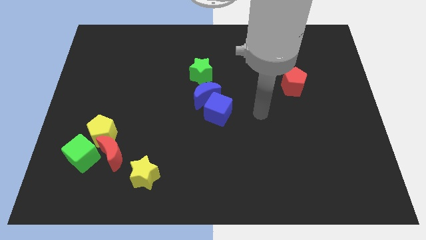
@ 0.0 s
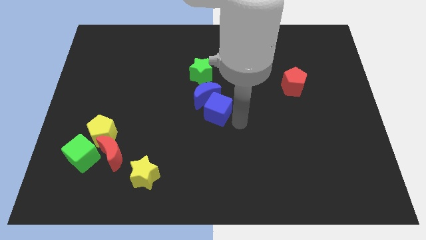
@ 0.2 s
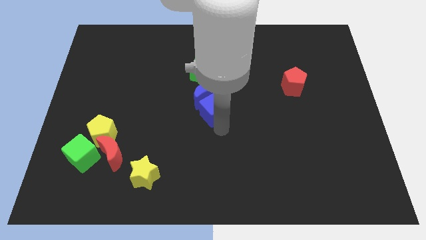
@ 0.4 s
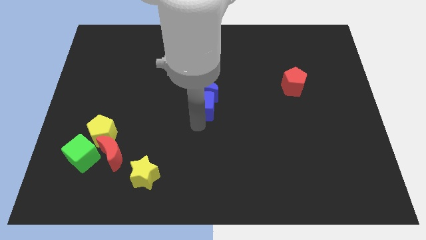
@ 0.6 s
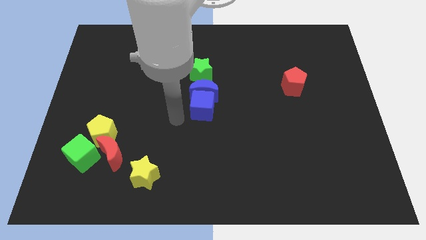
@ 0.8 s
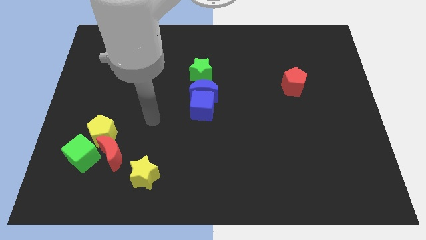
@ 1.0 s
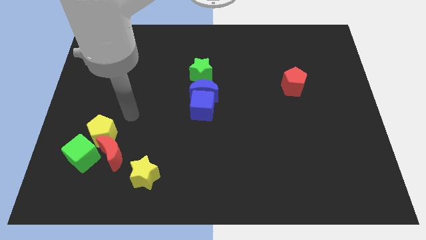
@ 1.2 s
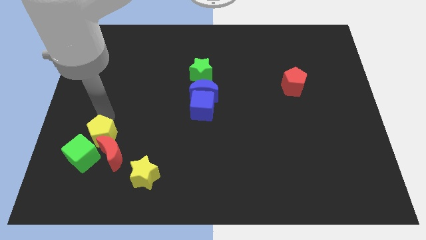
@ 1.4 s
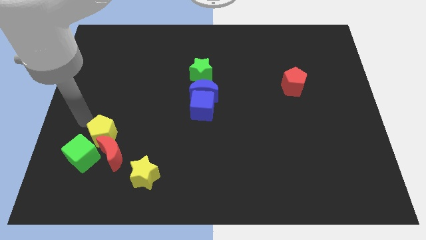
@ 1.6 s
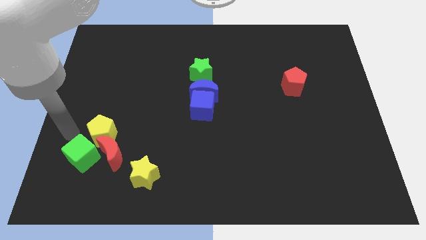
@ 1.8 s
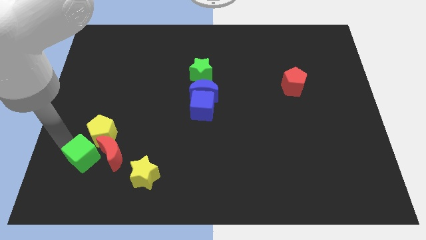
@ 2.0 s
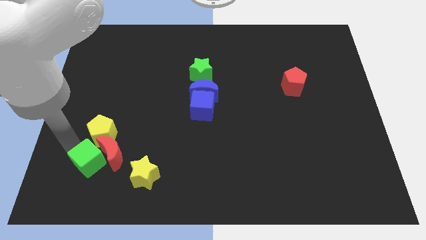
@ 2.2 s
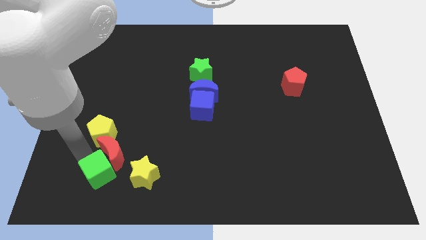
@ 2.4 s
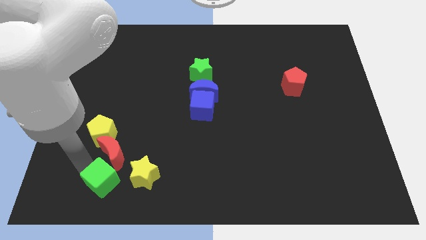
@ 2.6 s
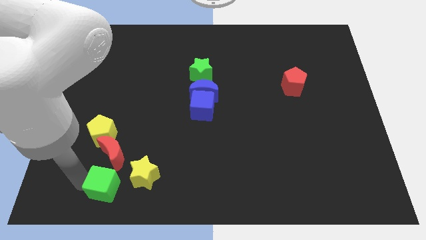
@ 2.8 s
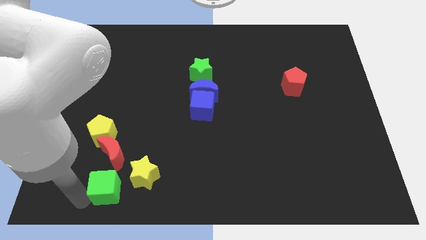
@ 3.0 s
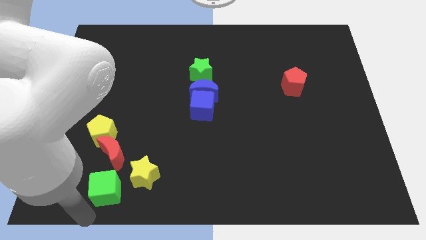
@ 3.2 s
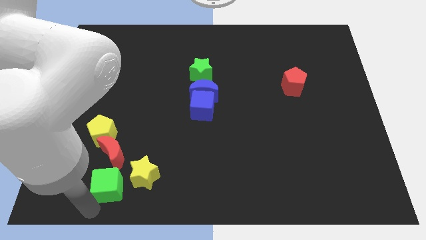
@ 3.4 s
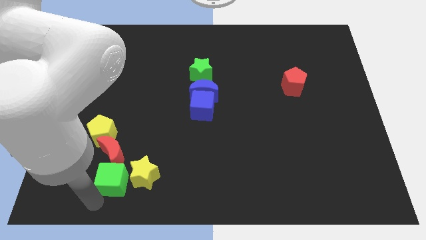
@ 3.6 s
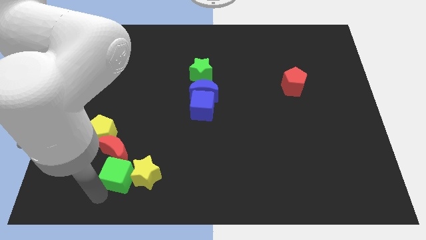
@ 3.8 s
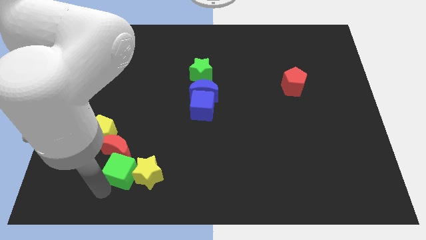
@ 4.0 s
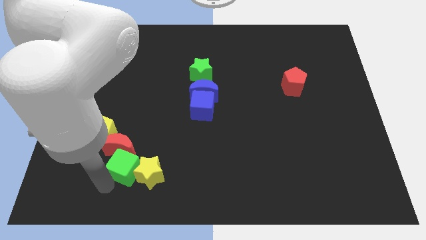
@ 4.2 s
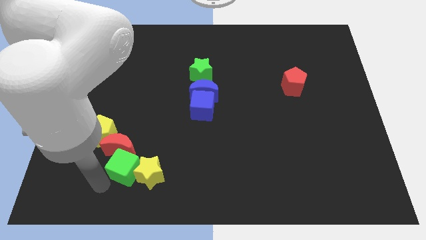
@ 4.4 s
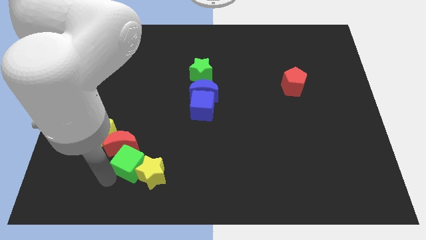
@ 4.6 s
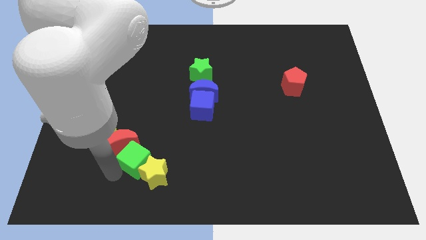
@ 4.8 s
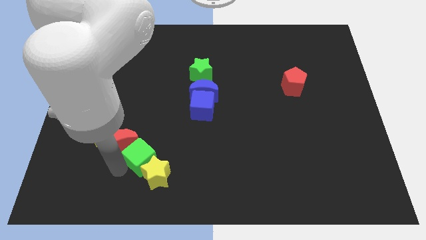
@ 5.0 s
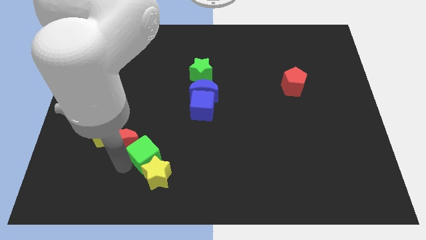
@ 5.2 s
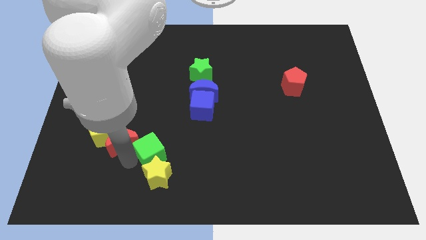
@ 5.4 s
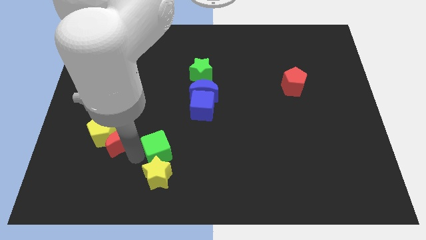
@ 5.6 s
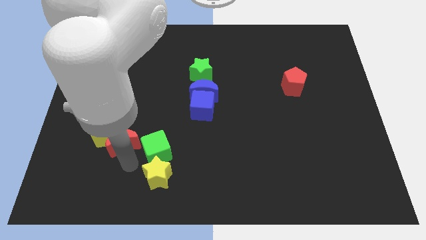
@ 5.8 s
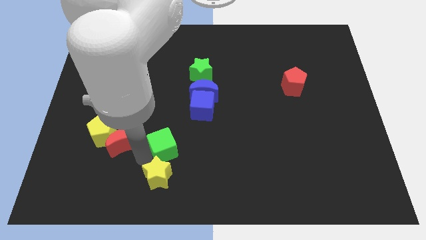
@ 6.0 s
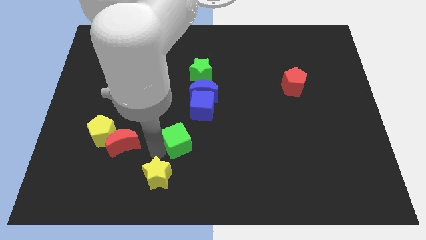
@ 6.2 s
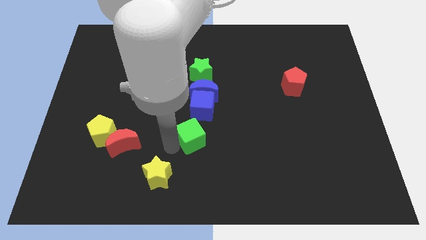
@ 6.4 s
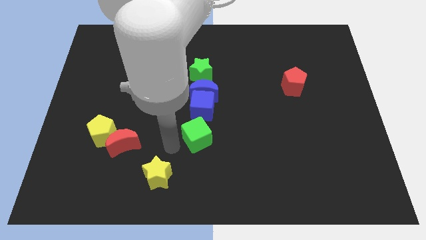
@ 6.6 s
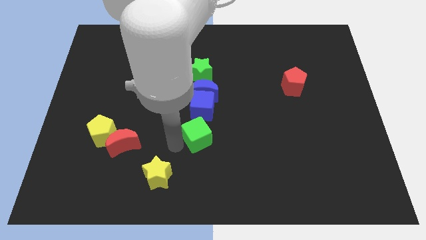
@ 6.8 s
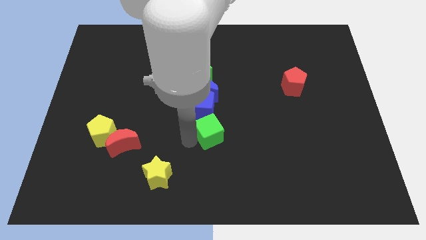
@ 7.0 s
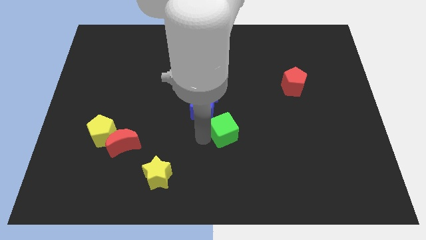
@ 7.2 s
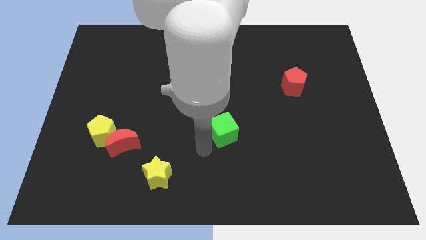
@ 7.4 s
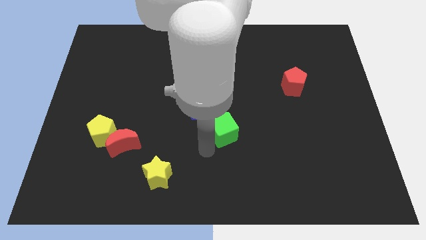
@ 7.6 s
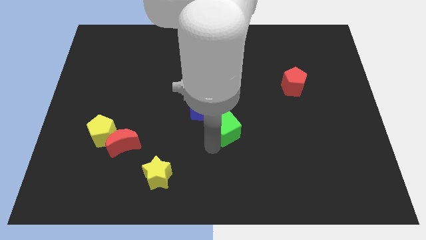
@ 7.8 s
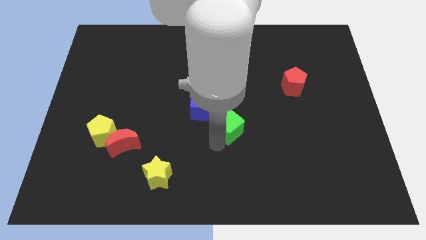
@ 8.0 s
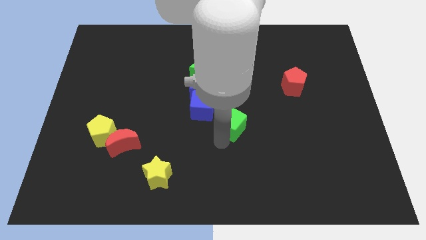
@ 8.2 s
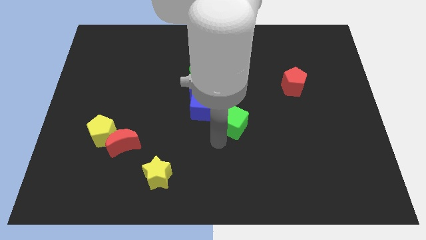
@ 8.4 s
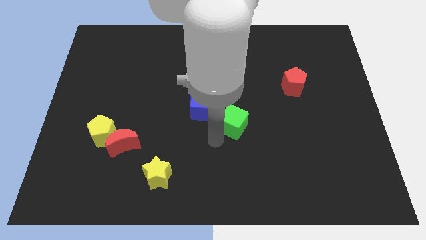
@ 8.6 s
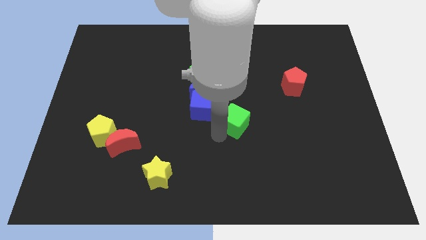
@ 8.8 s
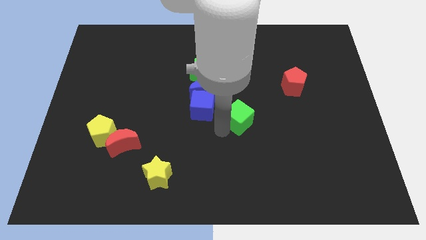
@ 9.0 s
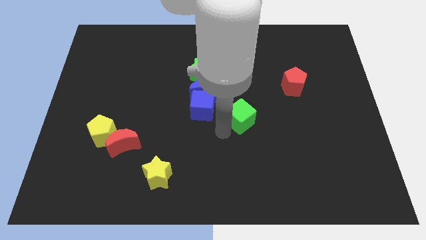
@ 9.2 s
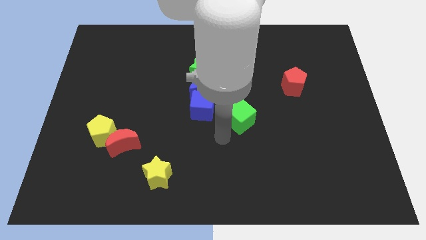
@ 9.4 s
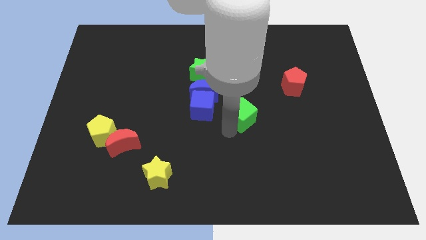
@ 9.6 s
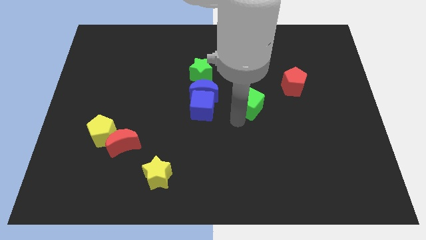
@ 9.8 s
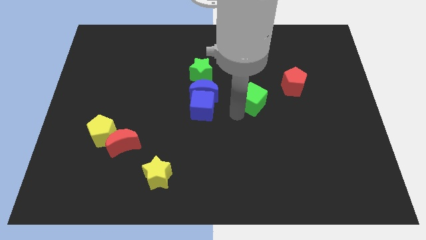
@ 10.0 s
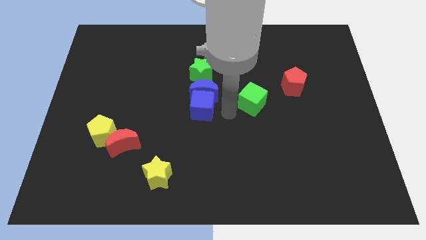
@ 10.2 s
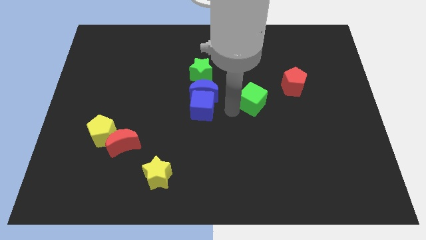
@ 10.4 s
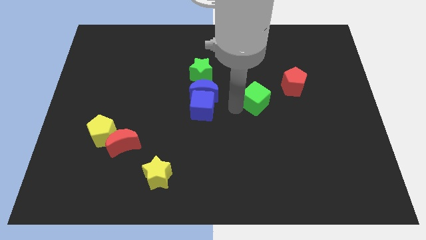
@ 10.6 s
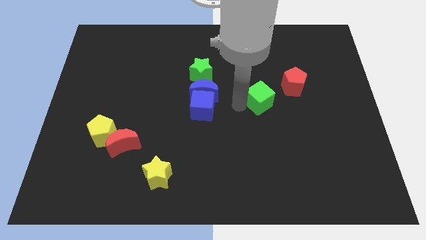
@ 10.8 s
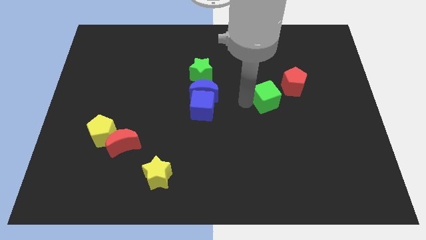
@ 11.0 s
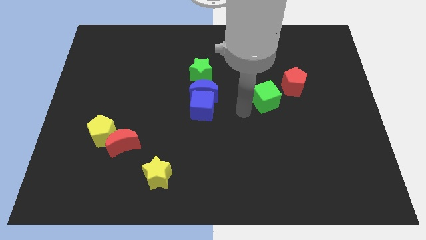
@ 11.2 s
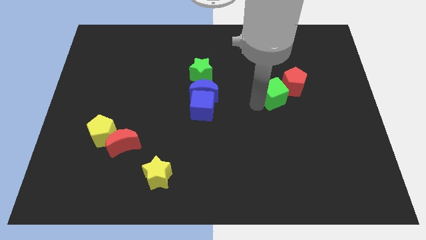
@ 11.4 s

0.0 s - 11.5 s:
put the green cube next to the red pentagon

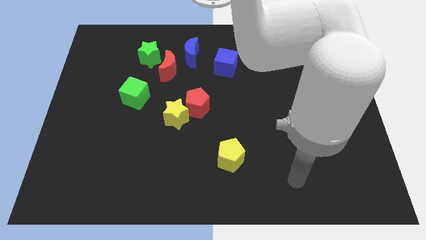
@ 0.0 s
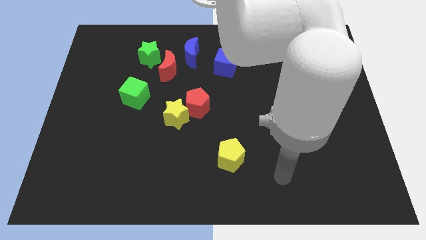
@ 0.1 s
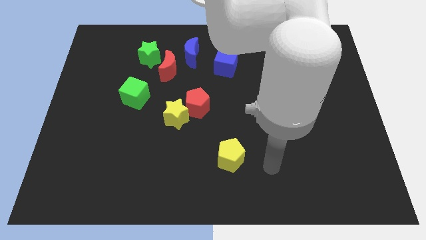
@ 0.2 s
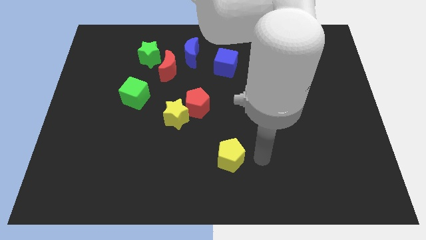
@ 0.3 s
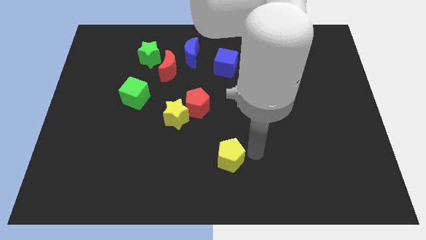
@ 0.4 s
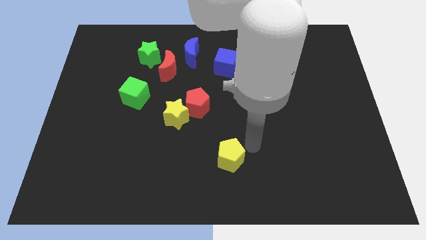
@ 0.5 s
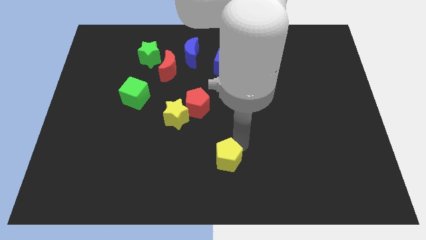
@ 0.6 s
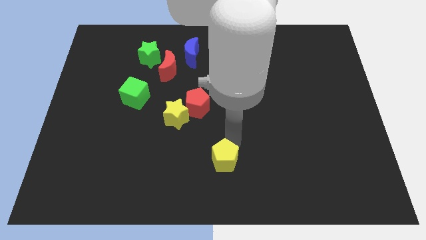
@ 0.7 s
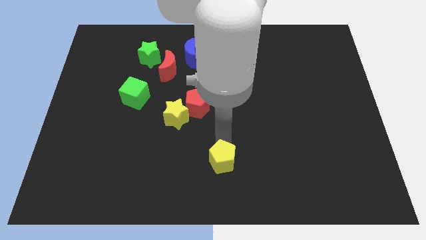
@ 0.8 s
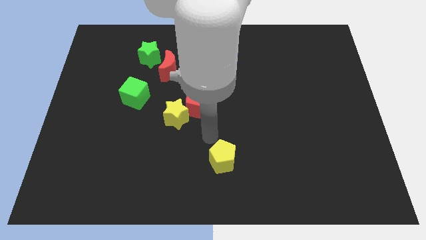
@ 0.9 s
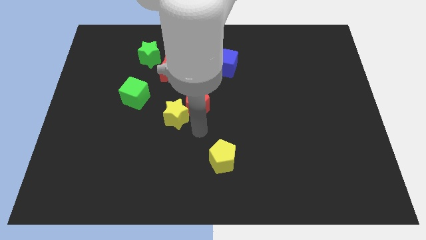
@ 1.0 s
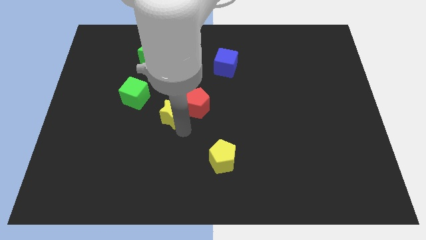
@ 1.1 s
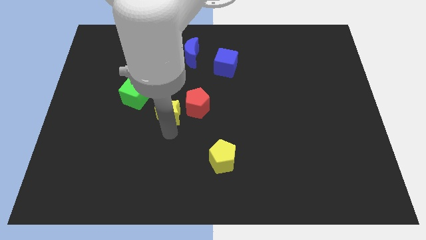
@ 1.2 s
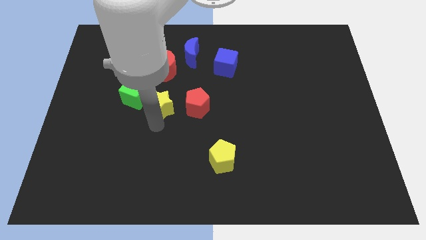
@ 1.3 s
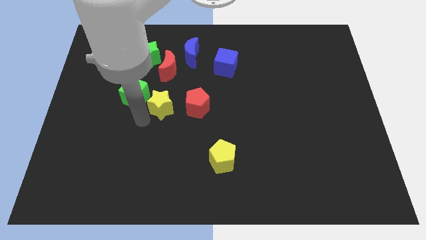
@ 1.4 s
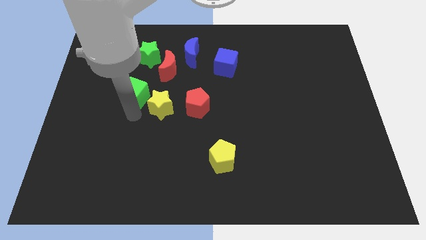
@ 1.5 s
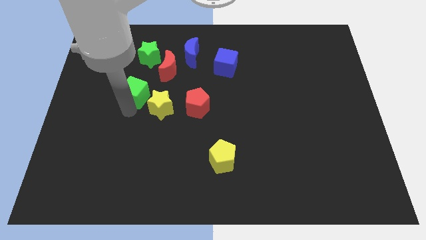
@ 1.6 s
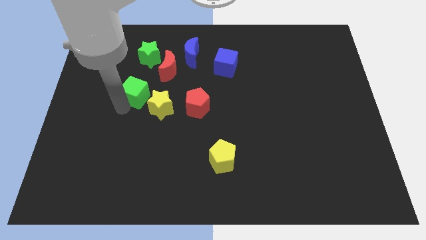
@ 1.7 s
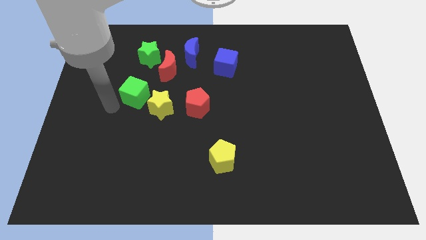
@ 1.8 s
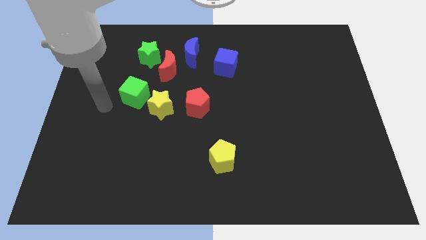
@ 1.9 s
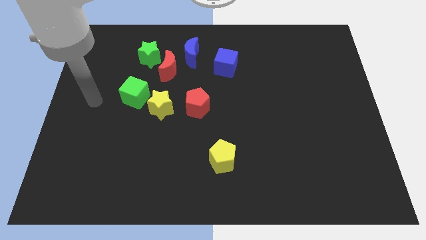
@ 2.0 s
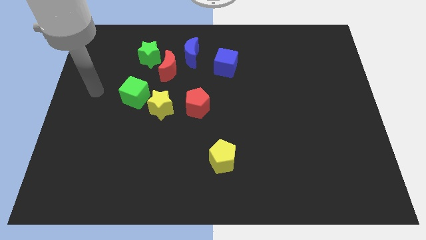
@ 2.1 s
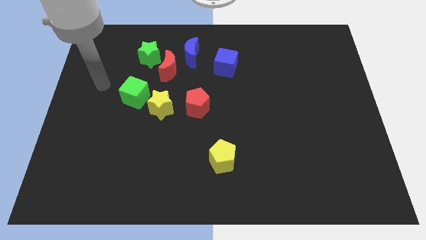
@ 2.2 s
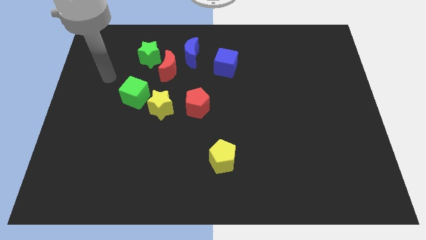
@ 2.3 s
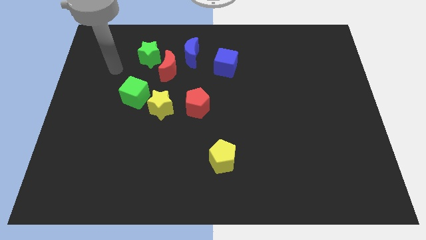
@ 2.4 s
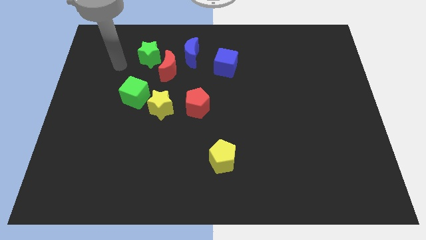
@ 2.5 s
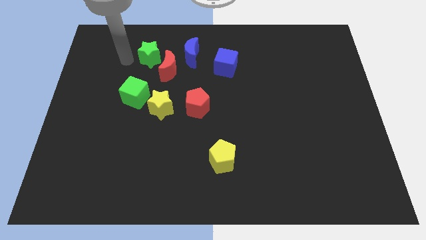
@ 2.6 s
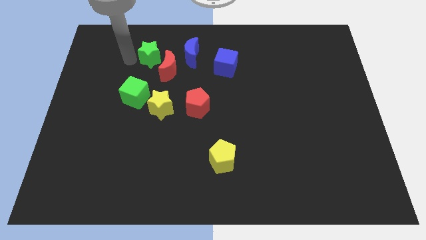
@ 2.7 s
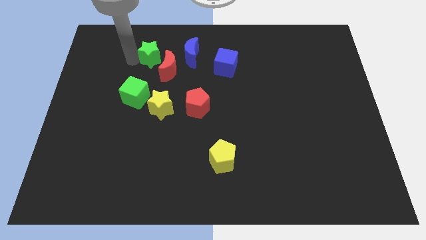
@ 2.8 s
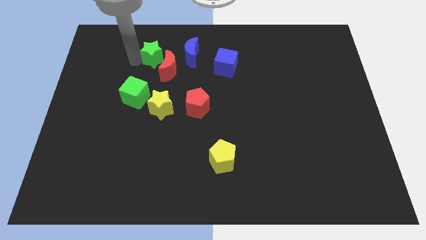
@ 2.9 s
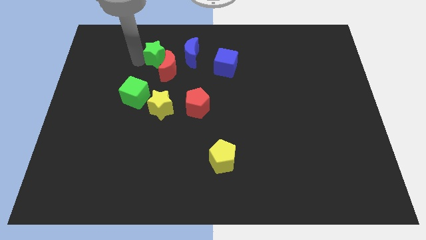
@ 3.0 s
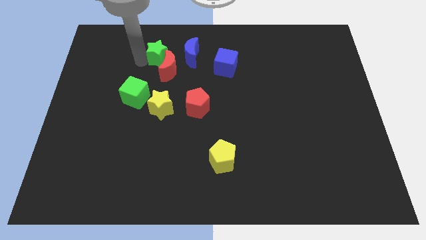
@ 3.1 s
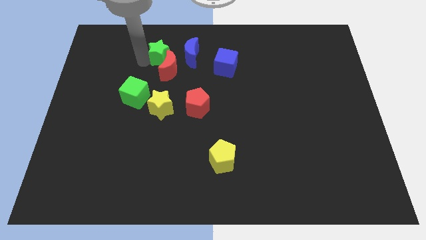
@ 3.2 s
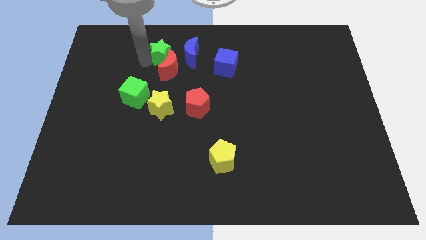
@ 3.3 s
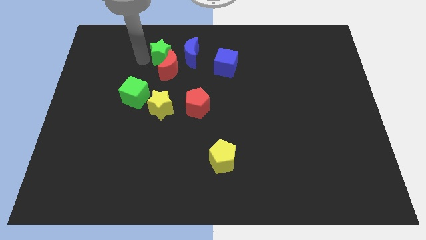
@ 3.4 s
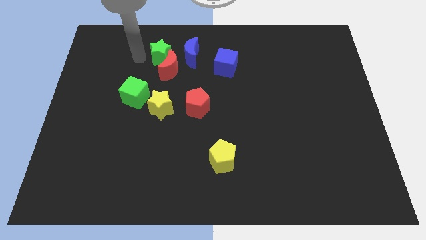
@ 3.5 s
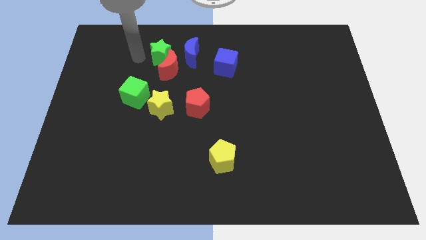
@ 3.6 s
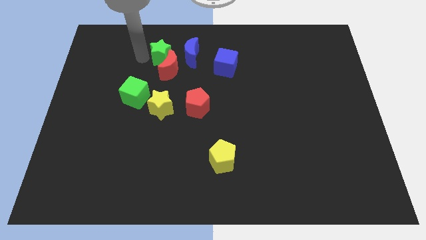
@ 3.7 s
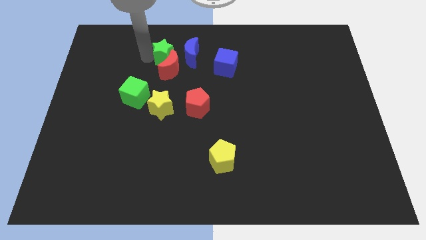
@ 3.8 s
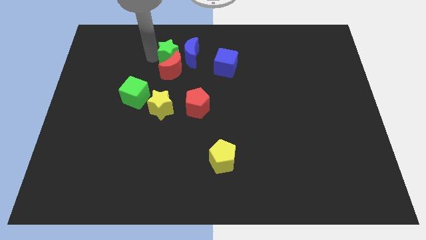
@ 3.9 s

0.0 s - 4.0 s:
put the green star next to the blue moon
